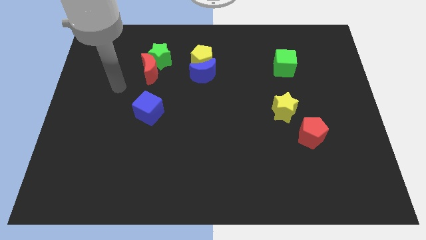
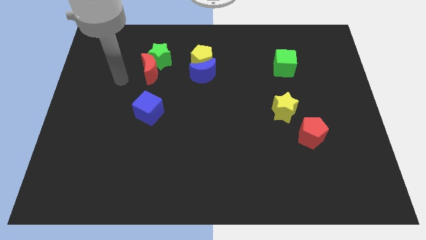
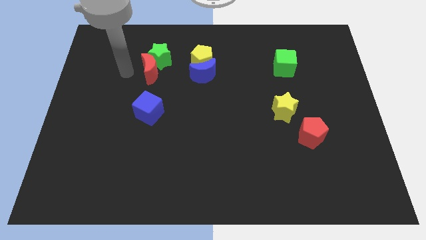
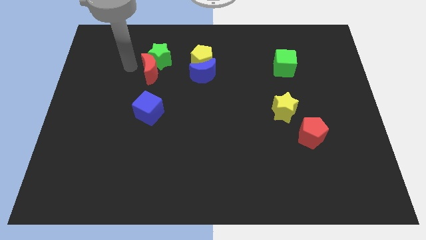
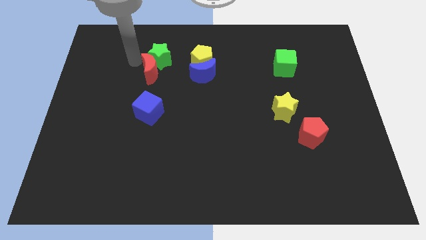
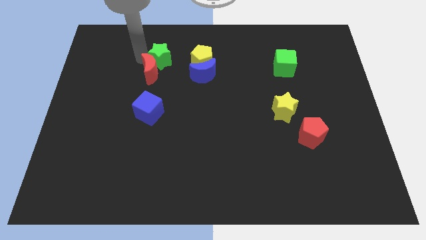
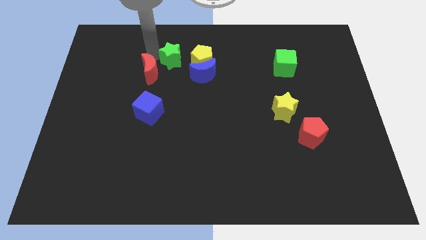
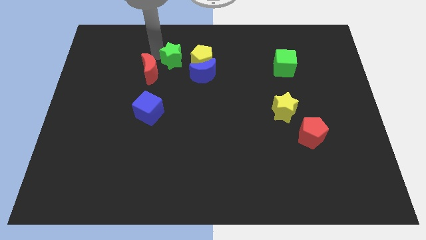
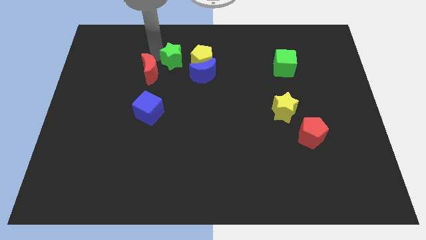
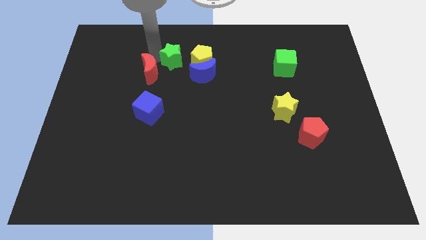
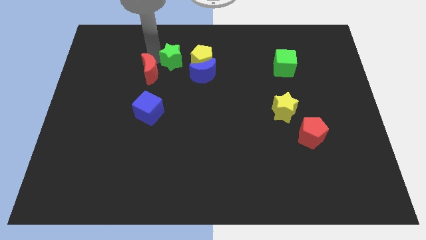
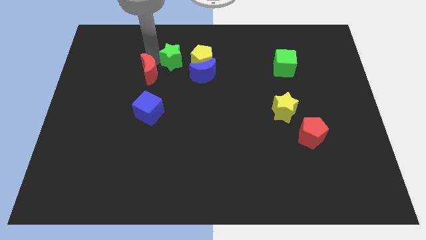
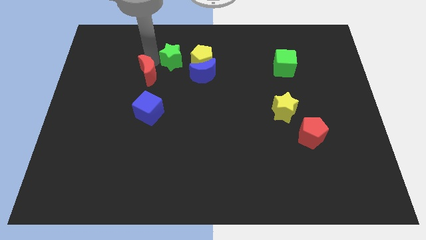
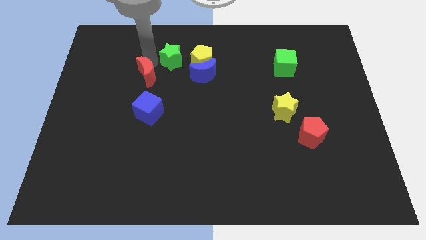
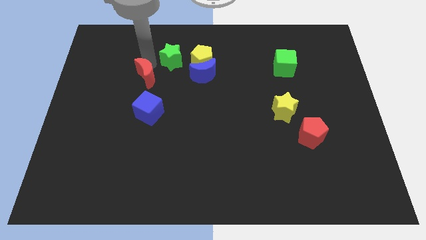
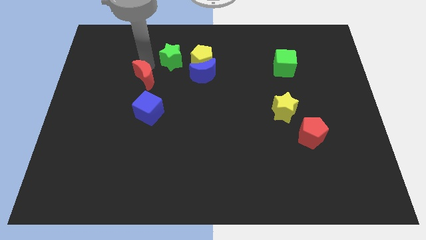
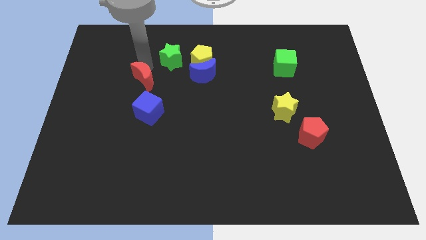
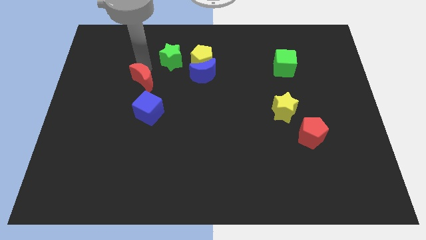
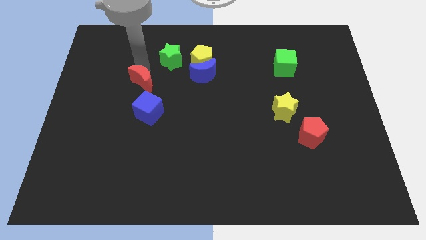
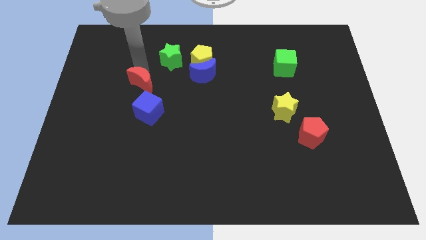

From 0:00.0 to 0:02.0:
move the red moon away from the green star

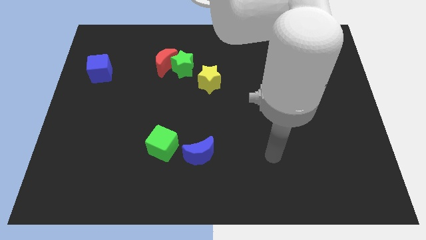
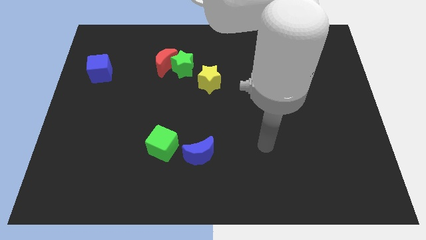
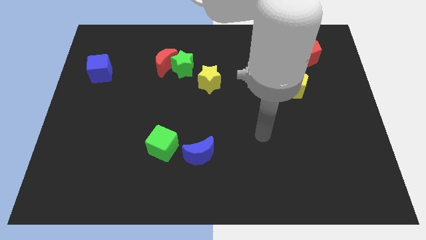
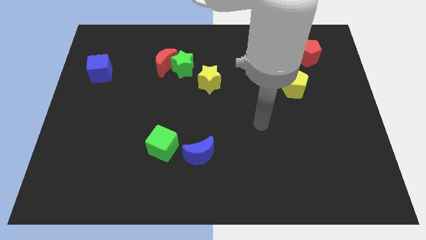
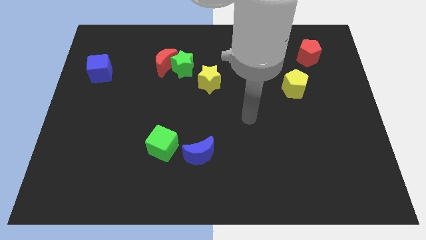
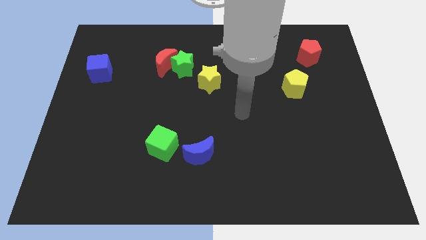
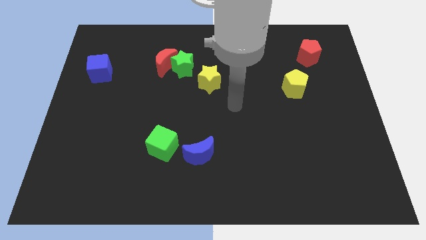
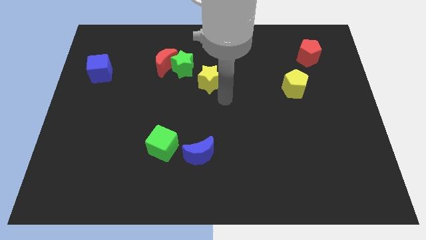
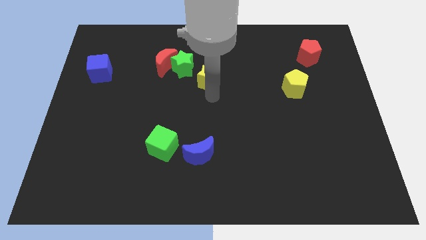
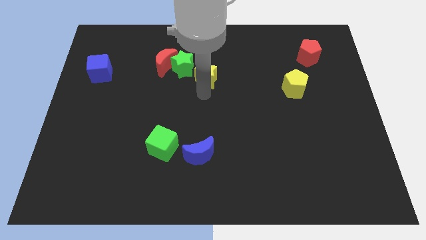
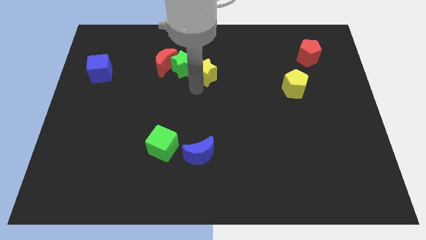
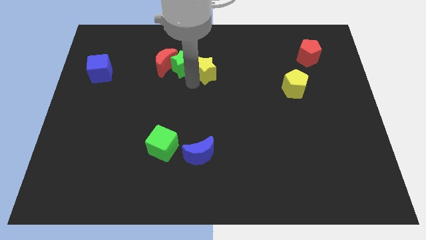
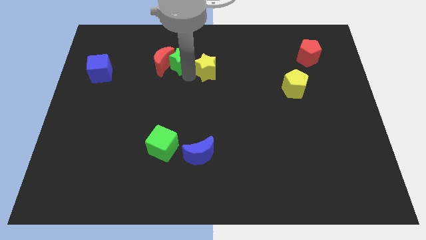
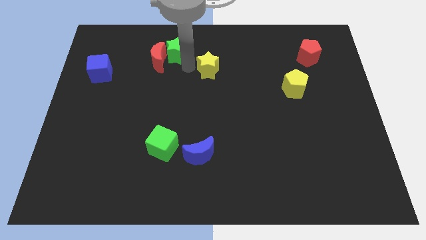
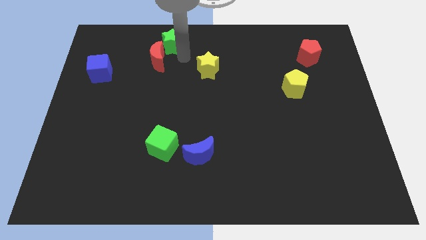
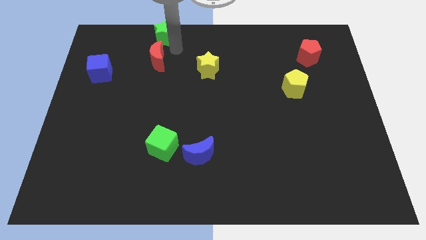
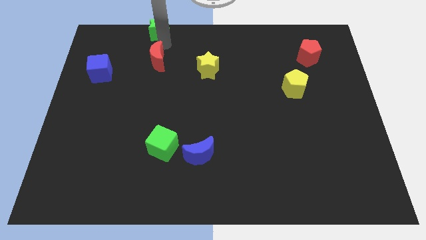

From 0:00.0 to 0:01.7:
separate the red moon from the green star

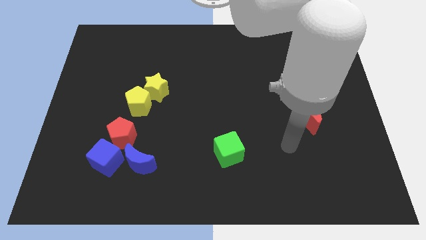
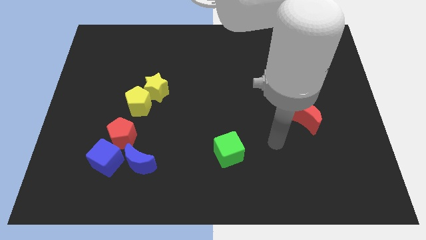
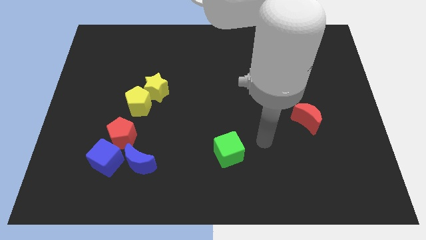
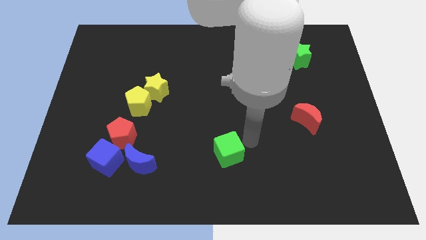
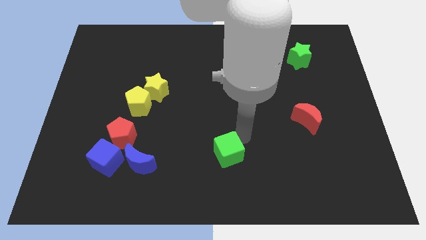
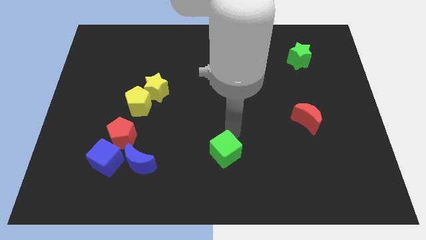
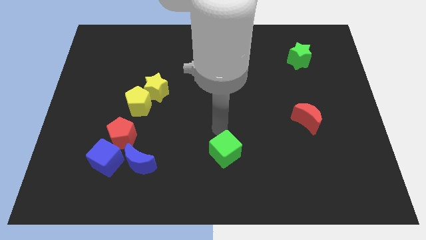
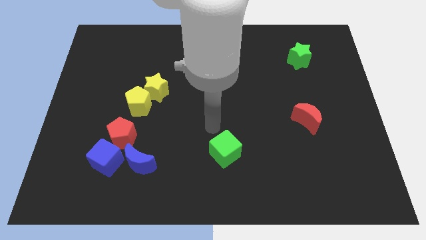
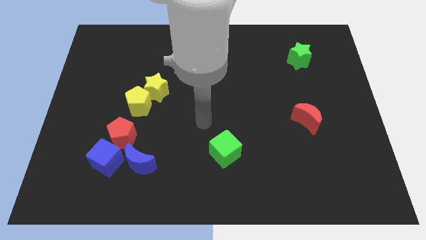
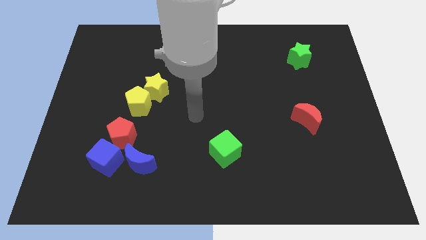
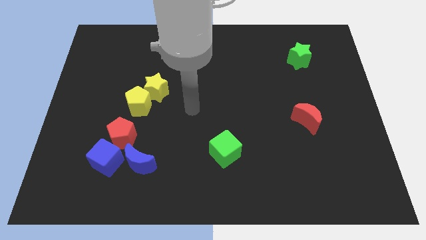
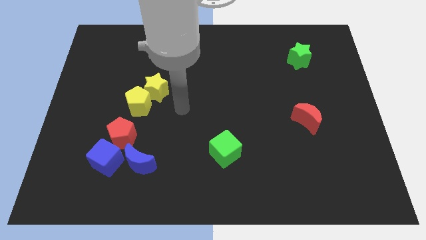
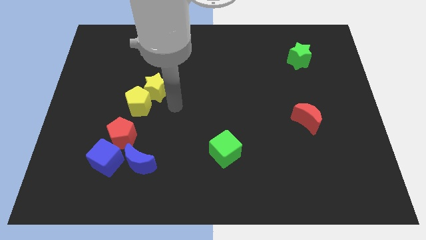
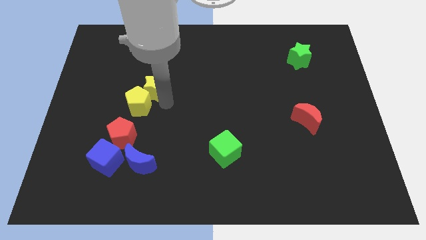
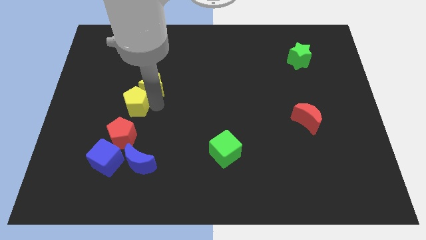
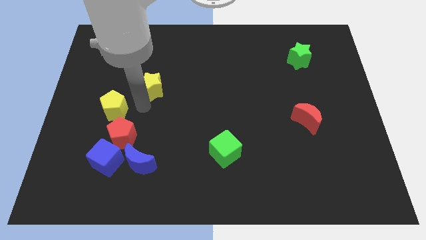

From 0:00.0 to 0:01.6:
pull the yellow star apart from the yellow pentagon

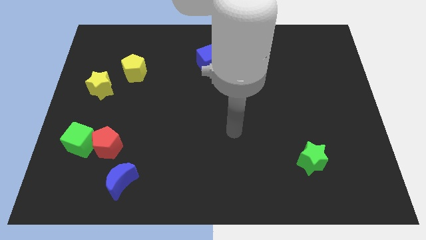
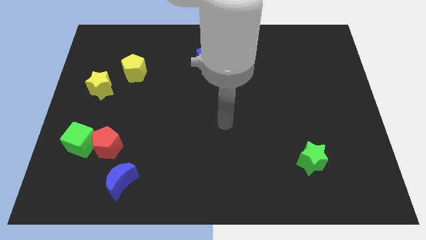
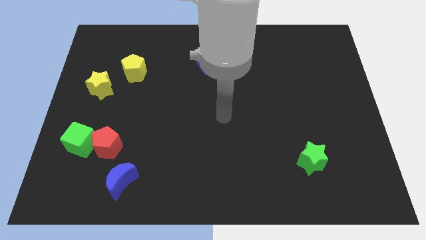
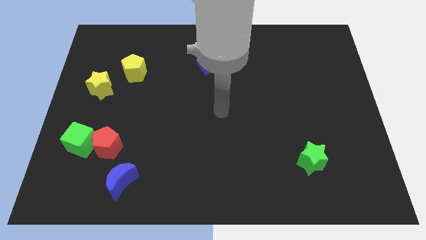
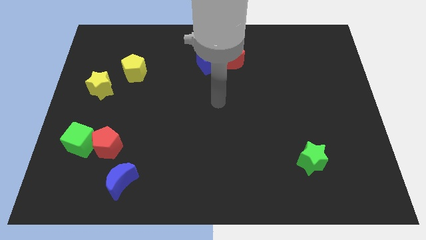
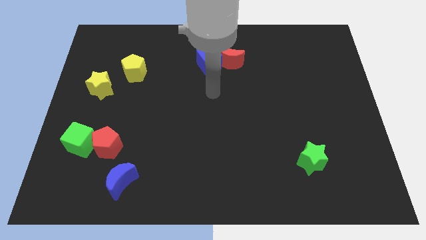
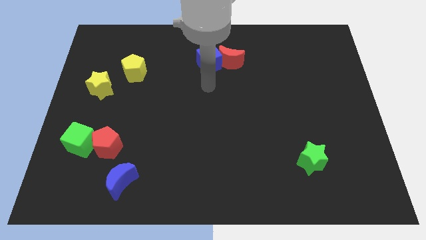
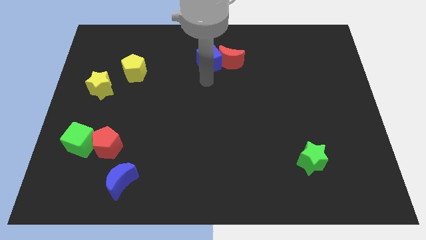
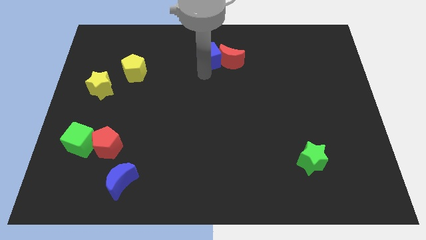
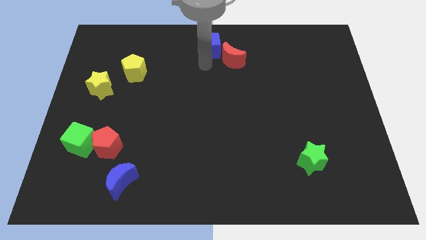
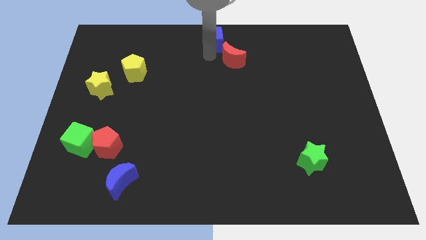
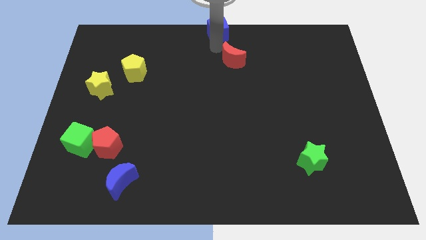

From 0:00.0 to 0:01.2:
pull the red moon apart from the blue cube

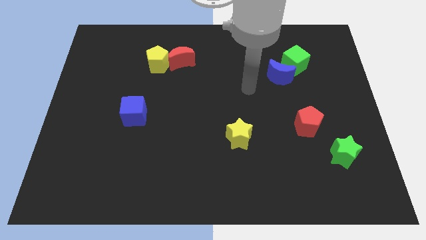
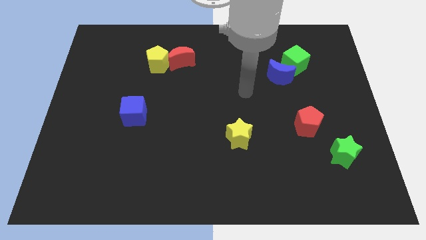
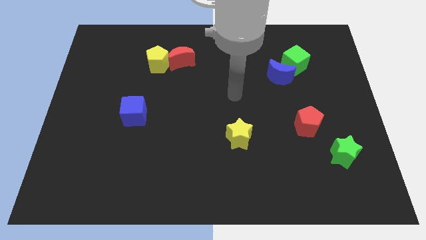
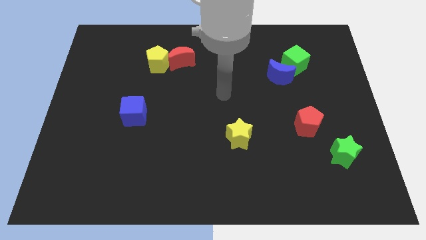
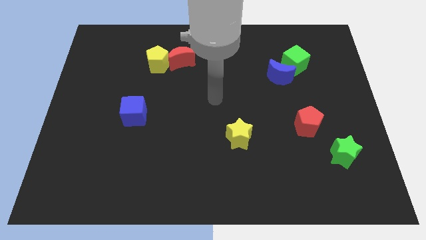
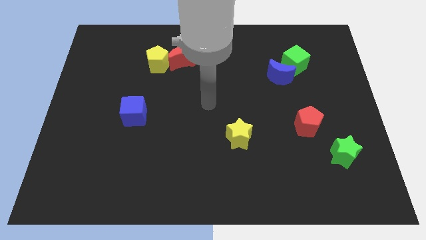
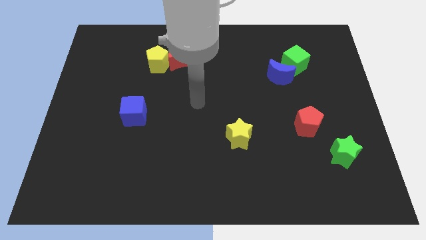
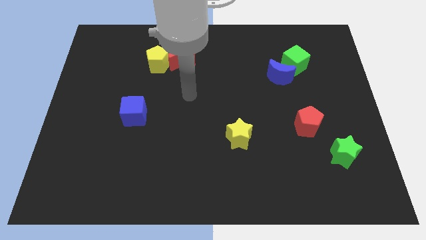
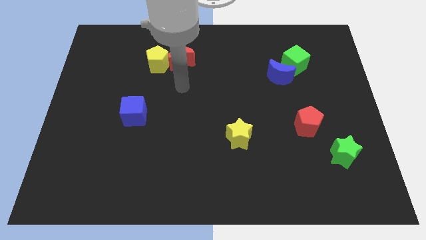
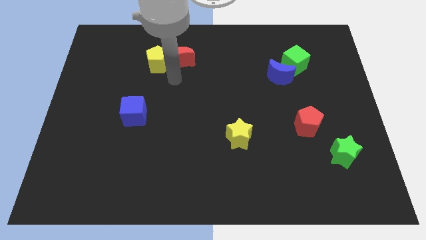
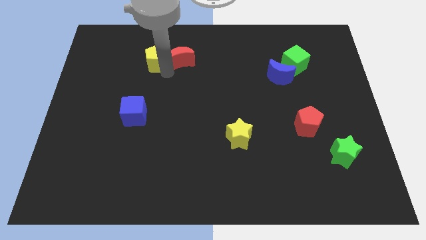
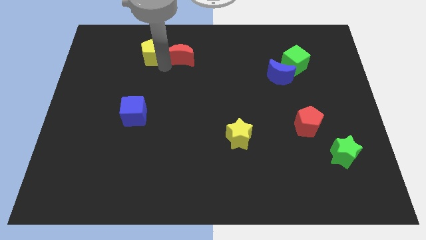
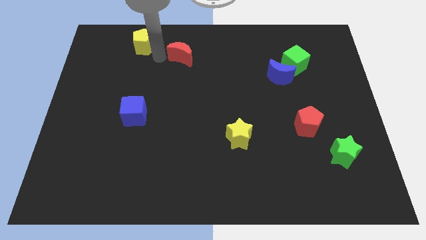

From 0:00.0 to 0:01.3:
separate the red moon from the yellow pentagon

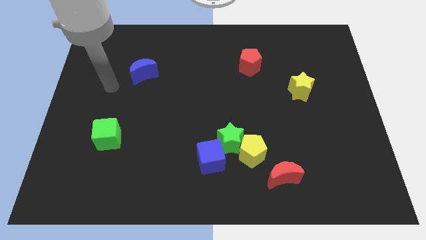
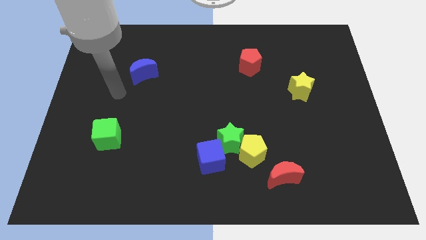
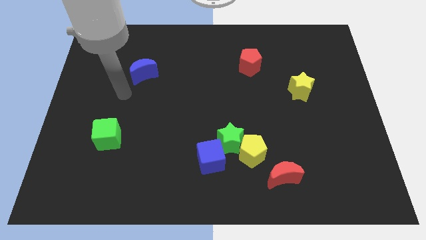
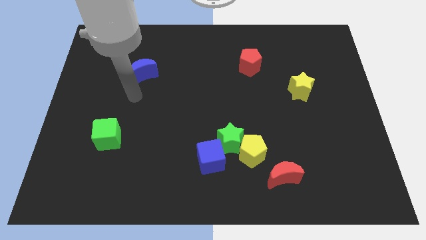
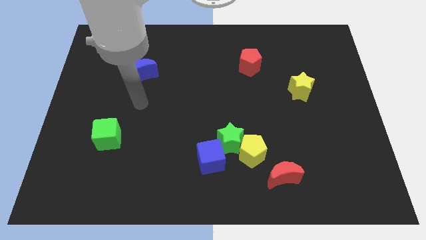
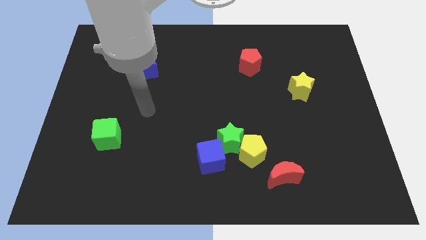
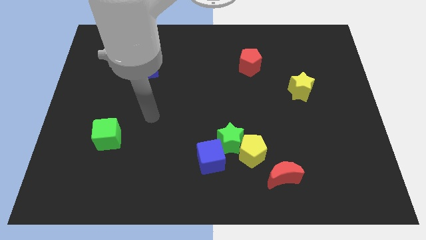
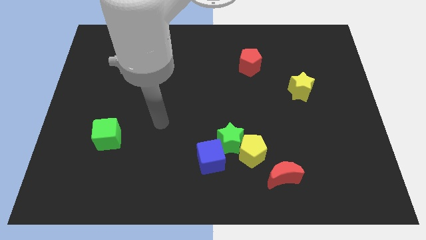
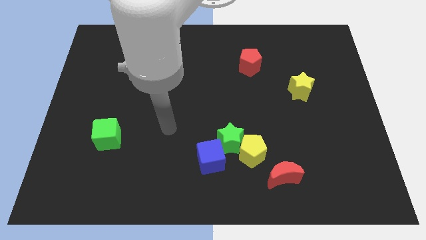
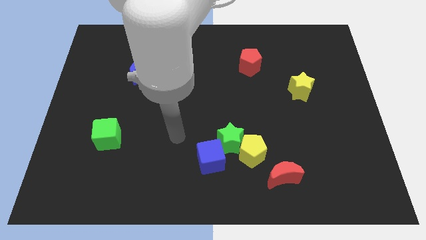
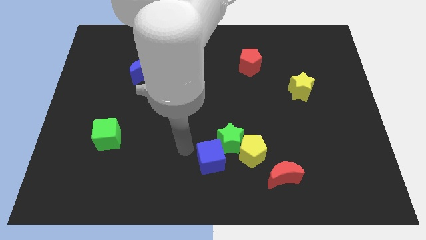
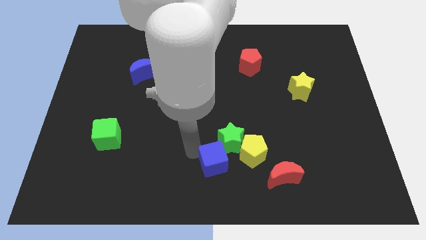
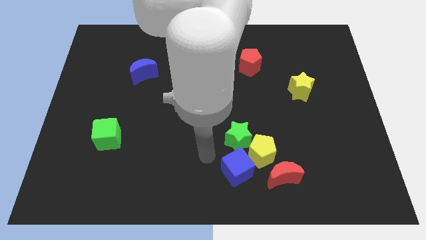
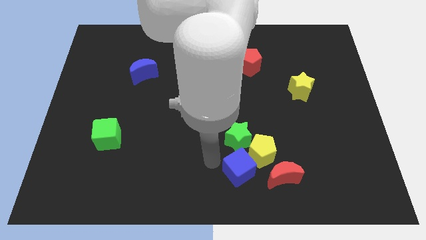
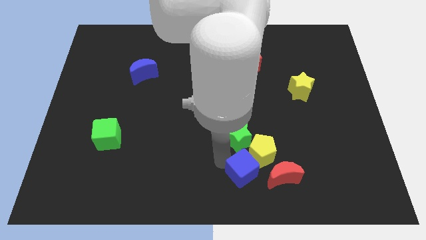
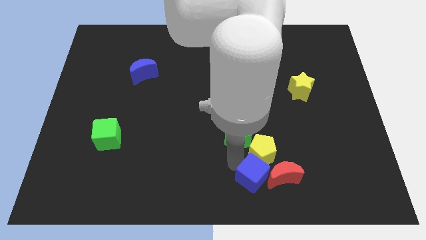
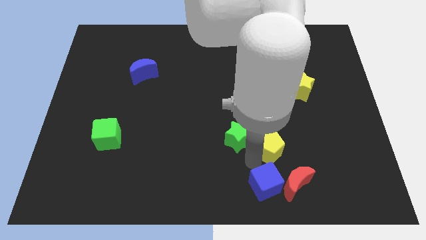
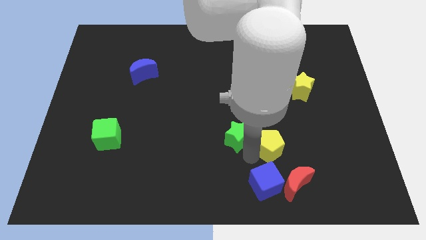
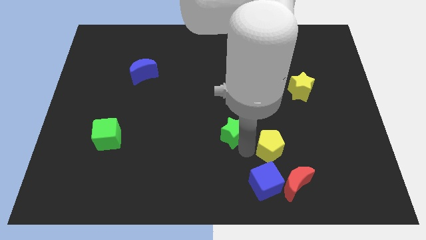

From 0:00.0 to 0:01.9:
move the green star away from the yellow pentagon and blue cube
